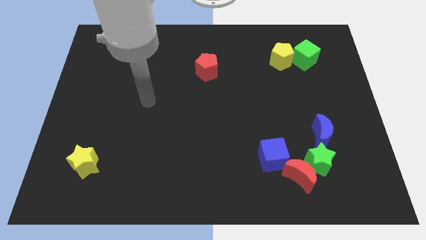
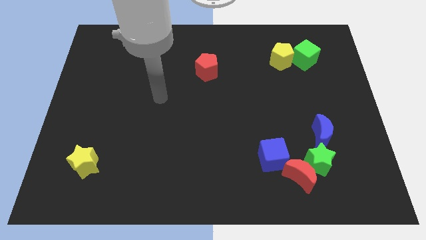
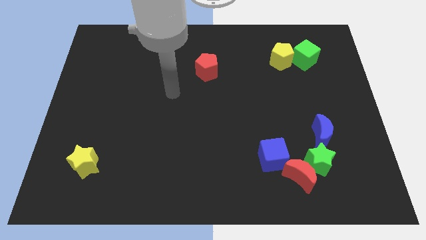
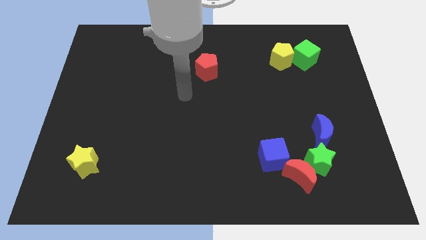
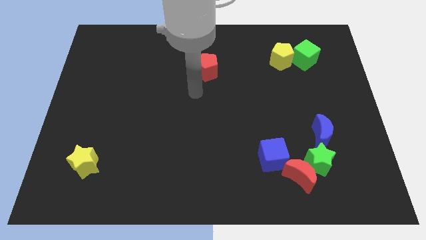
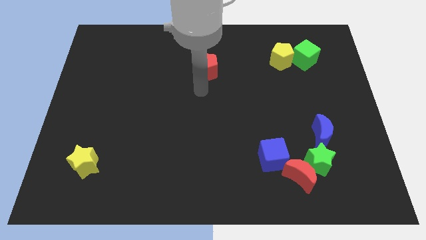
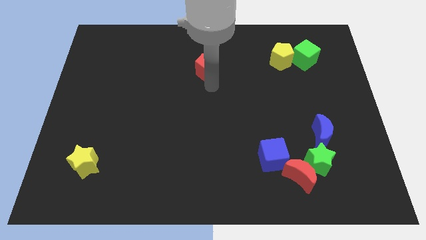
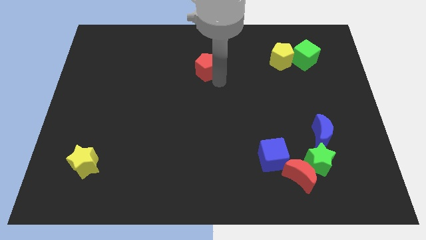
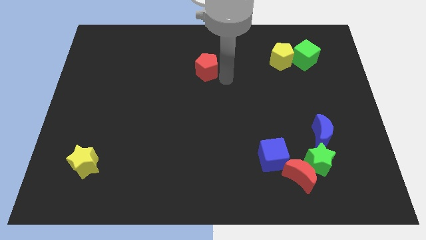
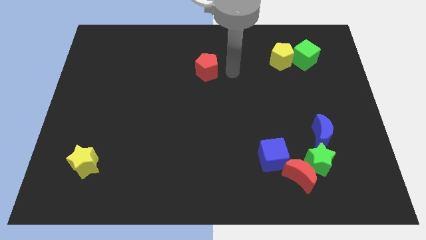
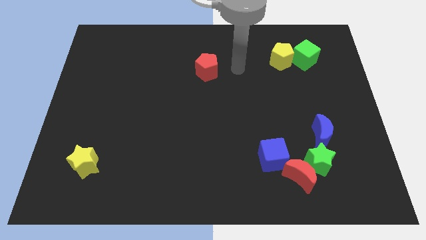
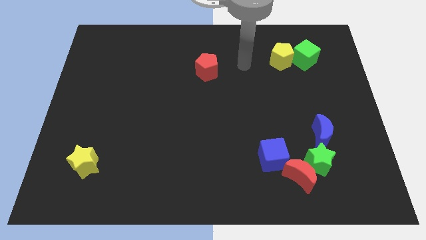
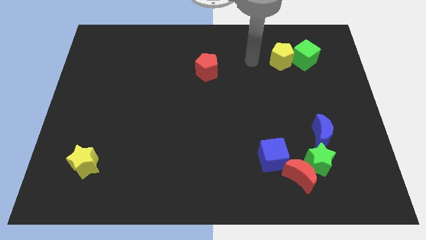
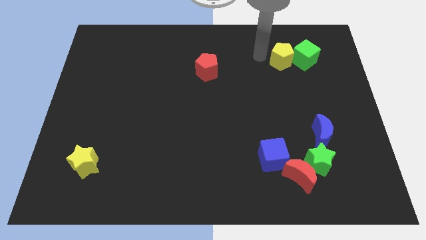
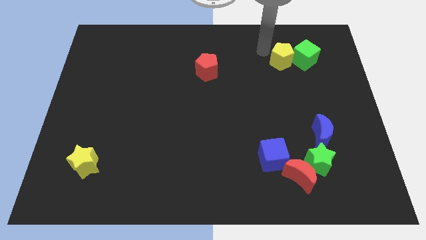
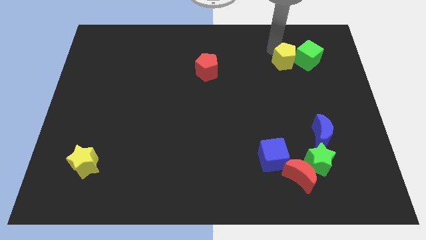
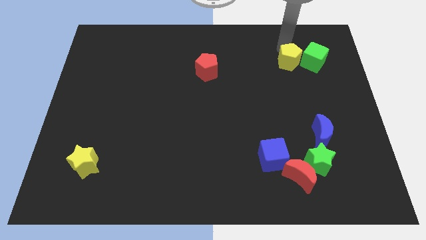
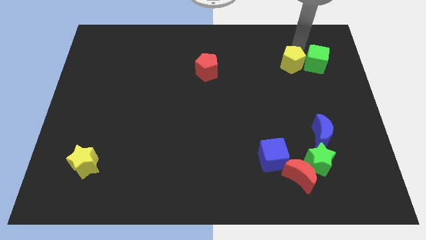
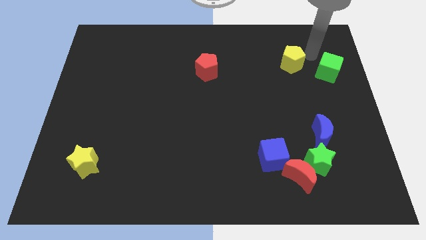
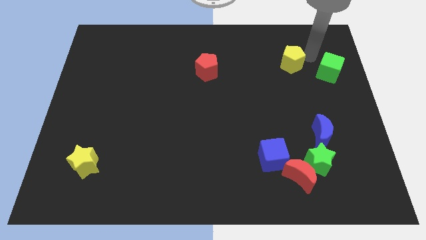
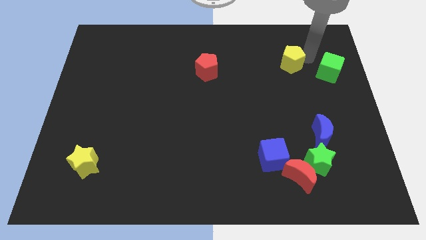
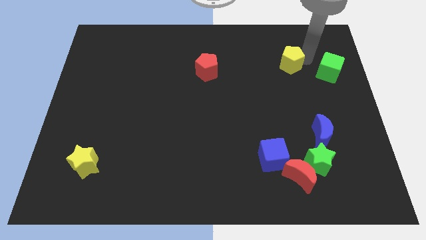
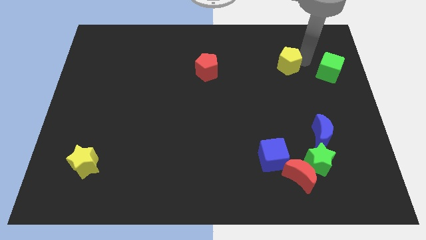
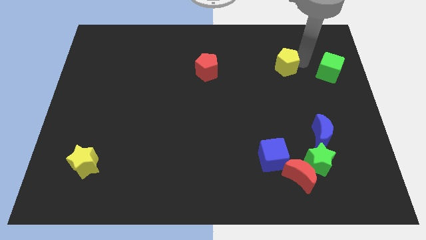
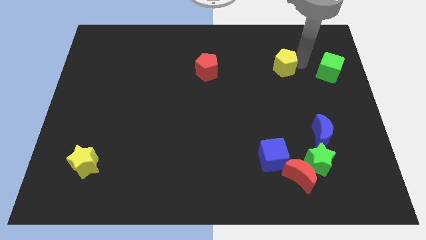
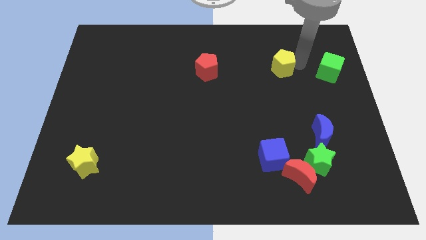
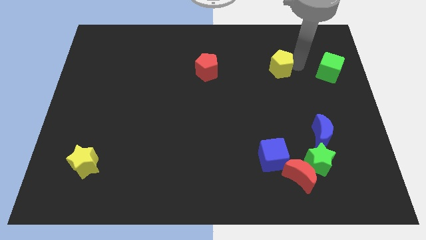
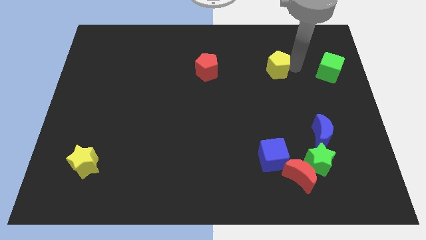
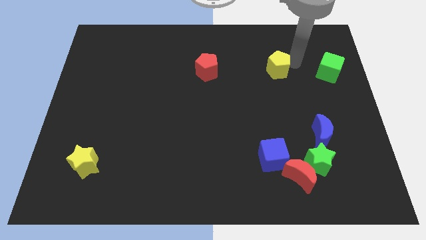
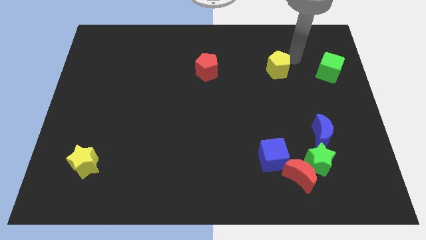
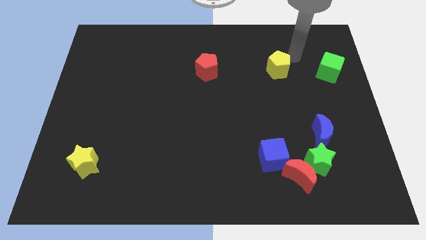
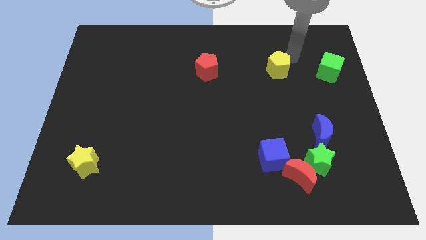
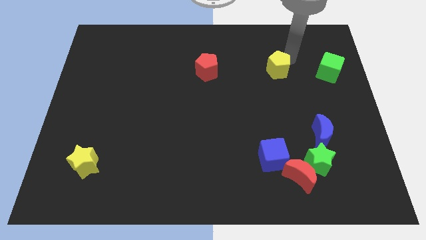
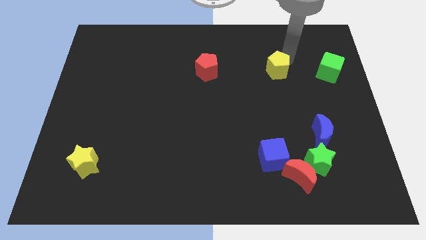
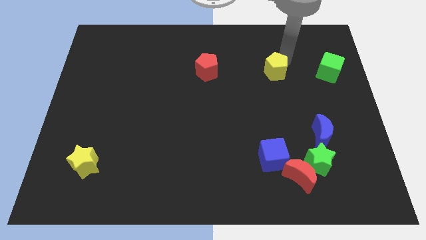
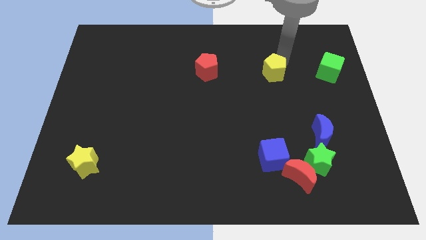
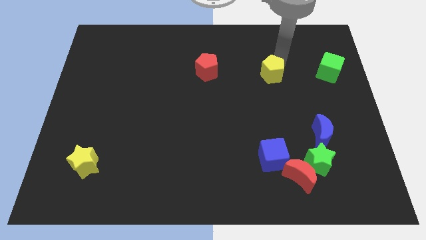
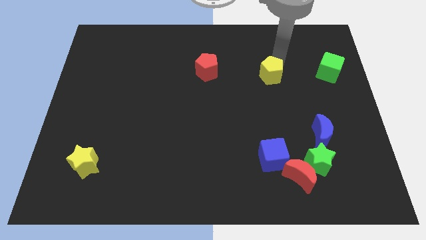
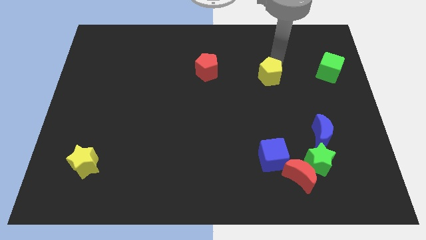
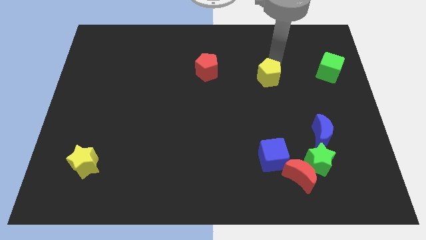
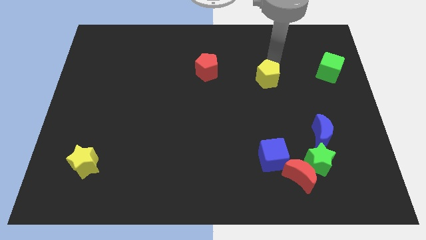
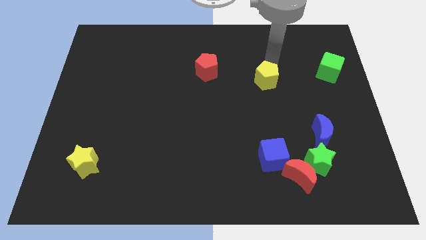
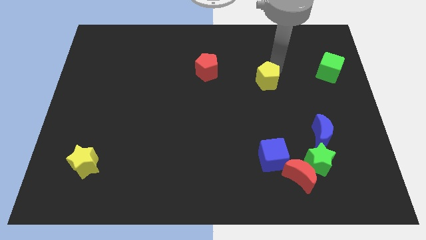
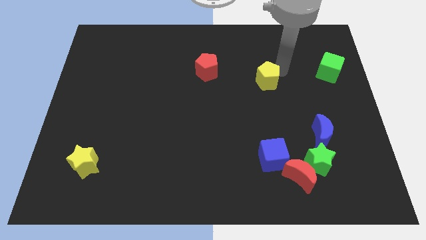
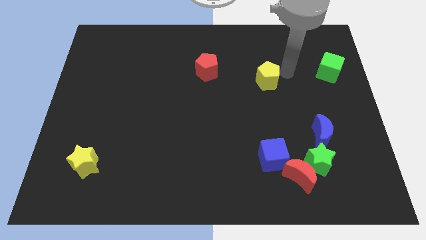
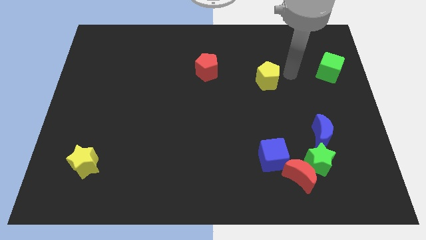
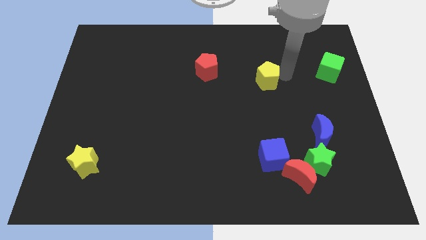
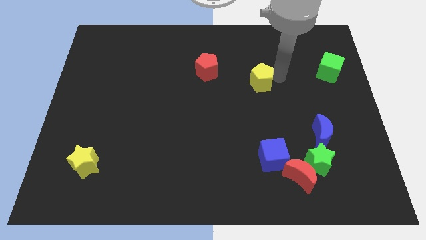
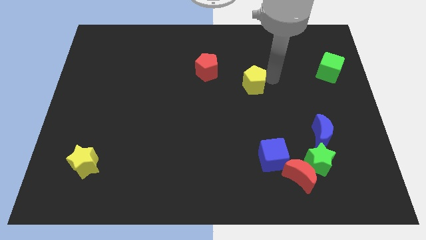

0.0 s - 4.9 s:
put the yellow pentagon to the middle

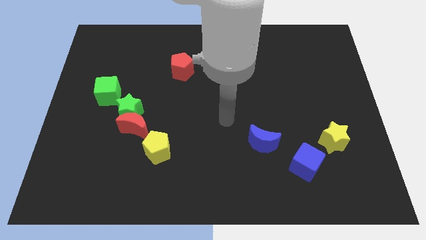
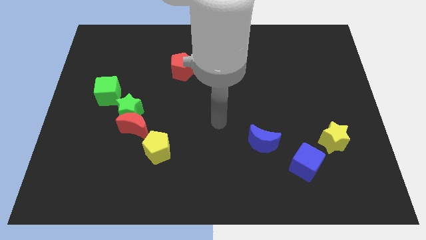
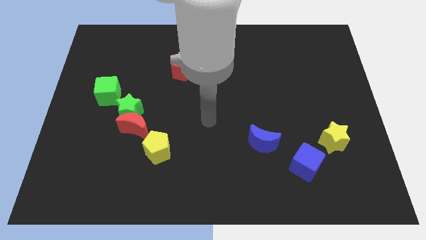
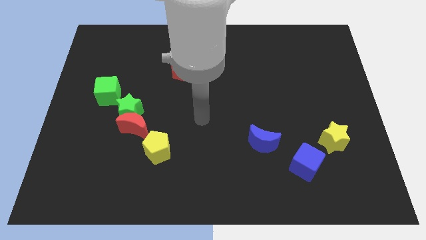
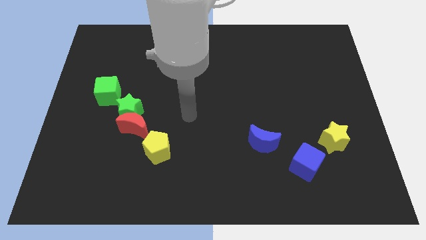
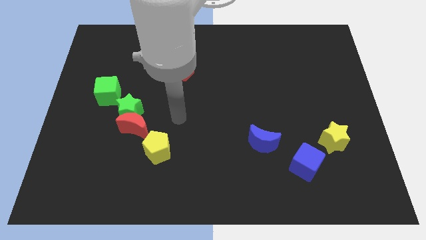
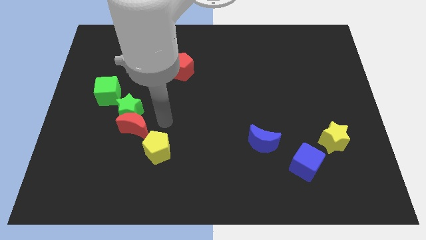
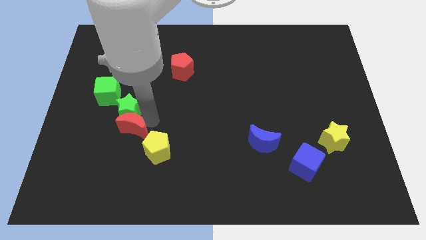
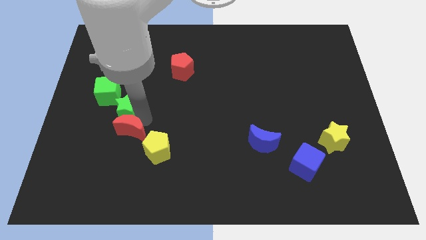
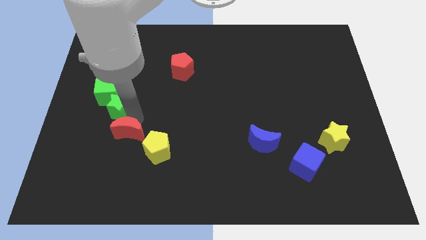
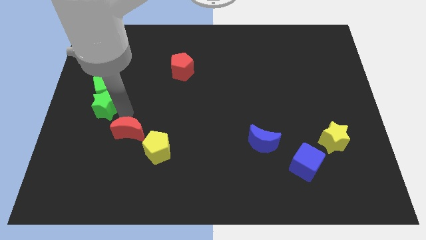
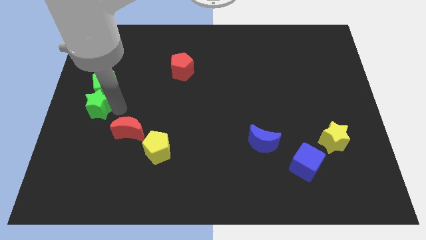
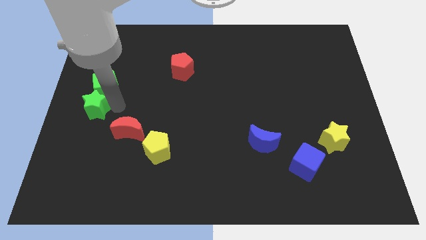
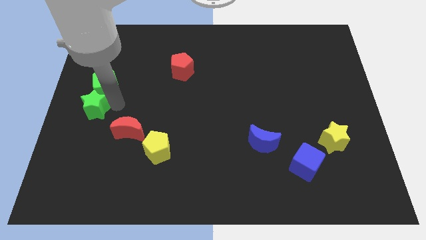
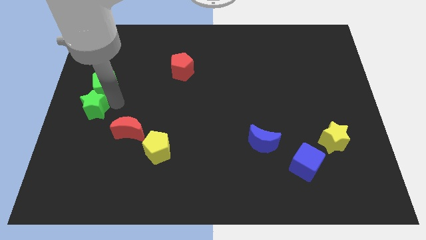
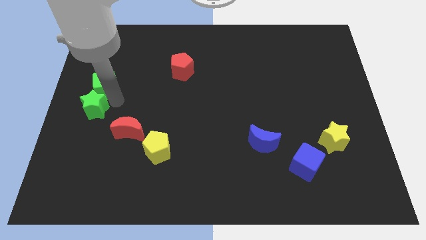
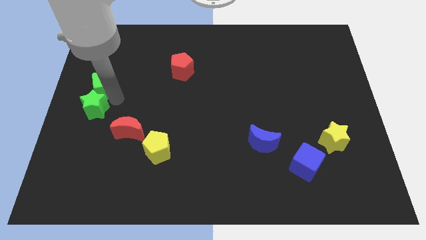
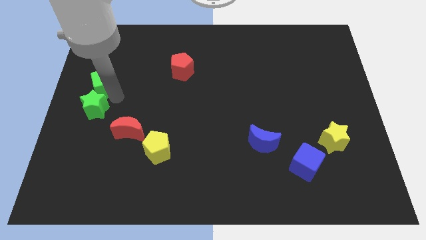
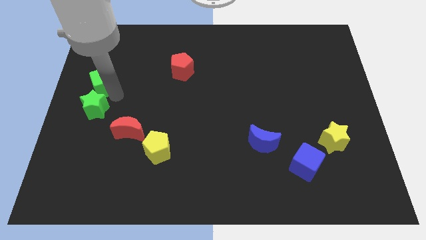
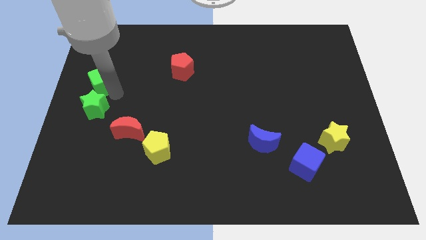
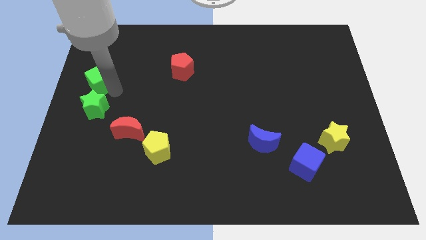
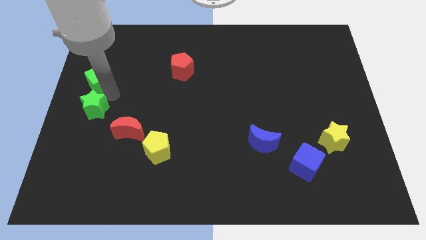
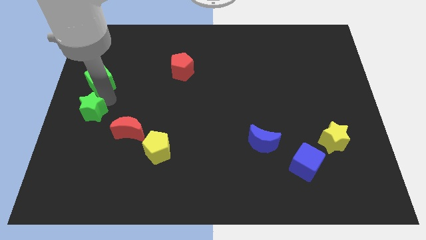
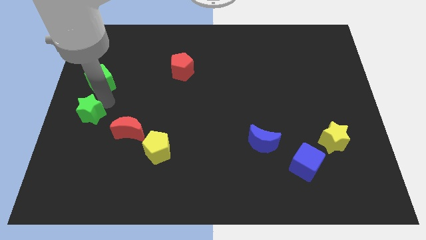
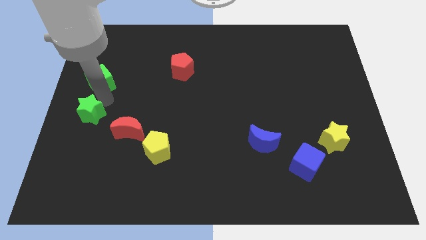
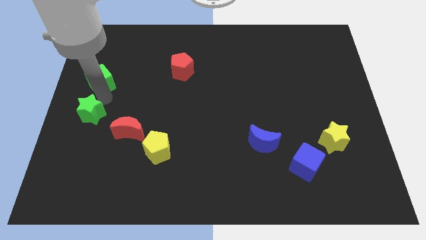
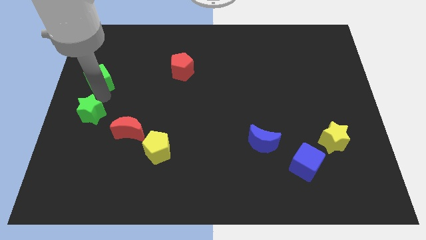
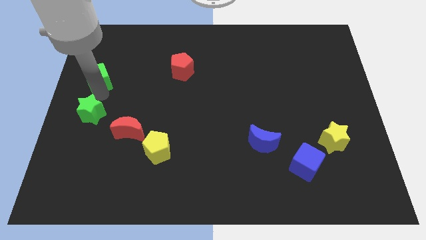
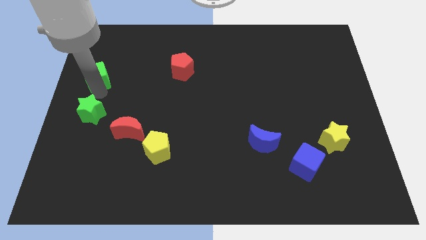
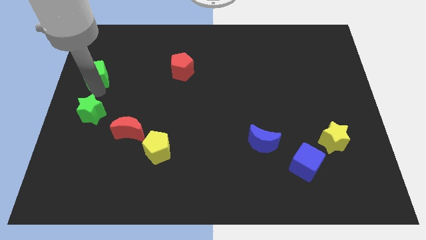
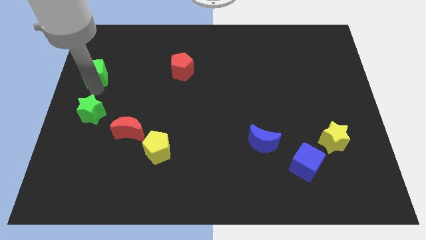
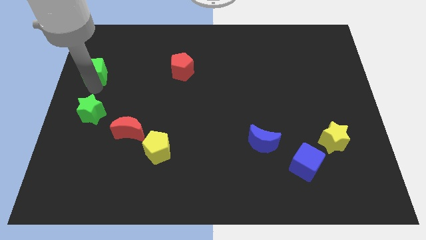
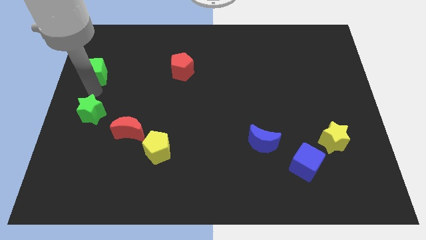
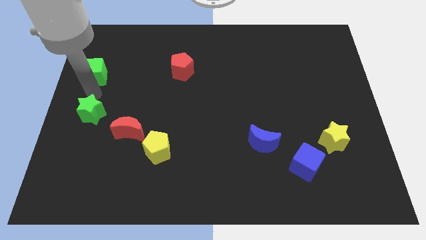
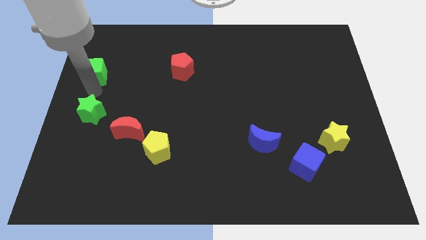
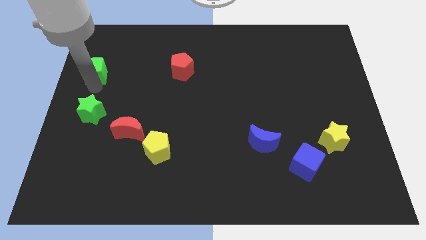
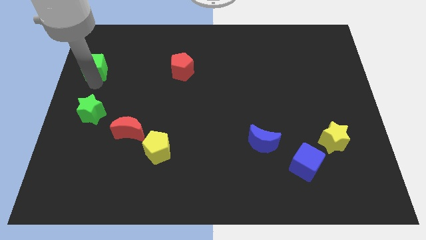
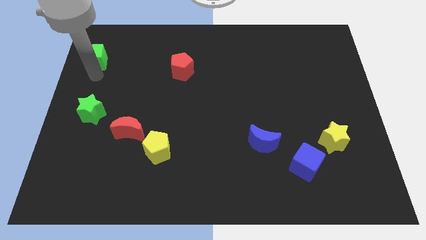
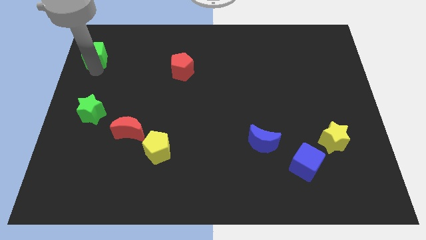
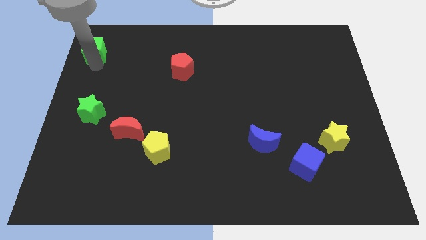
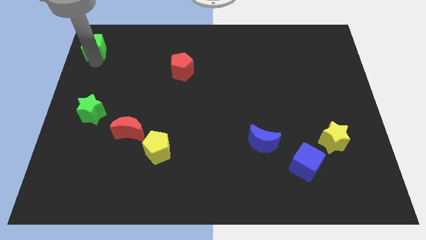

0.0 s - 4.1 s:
put the green cube to the top left
